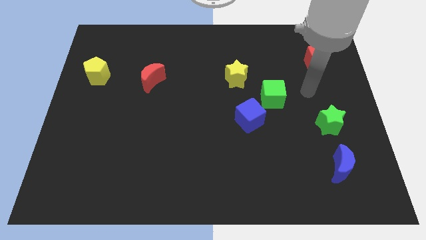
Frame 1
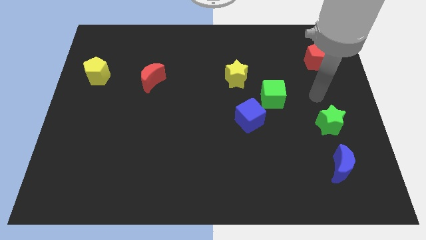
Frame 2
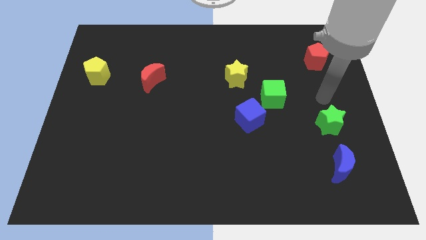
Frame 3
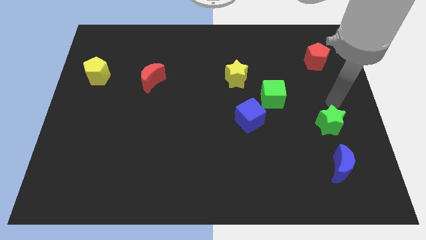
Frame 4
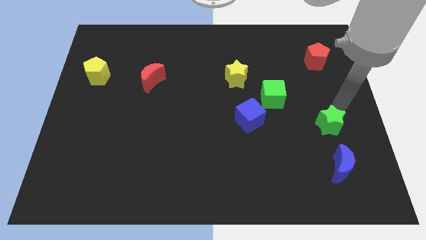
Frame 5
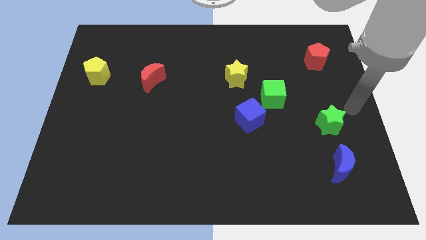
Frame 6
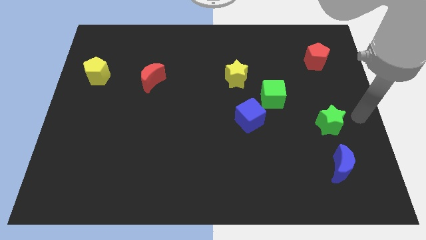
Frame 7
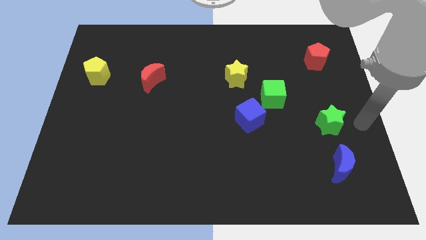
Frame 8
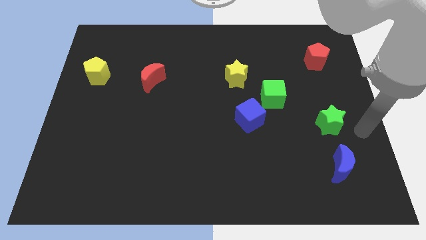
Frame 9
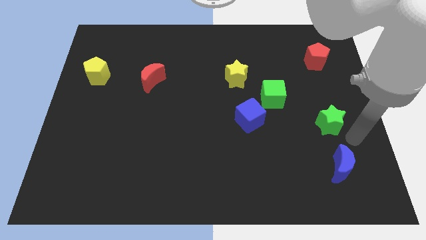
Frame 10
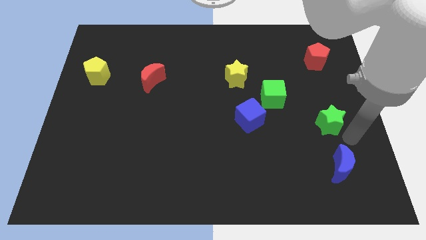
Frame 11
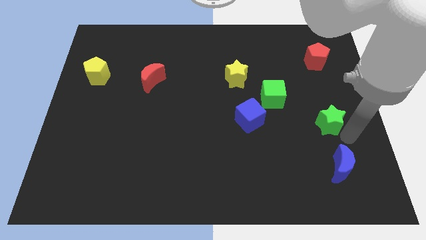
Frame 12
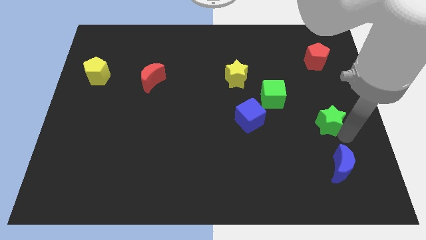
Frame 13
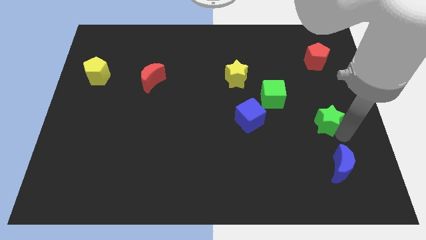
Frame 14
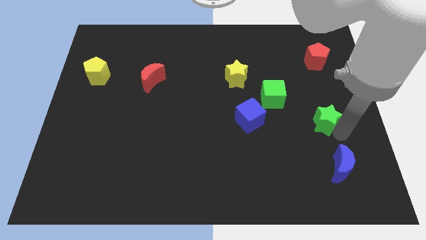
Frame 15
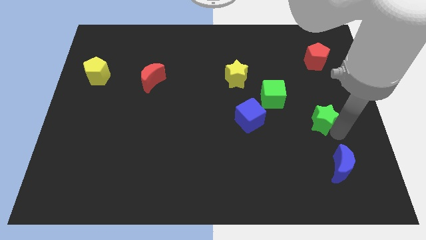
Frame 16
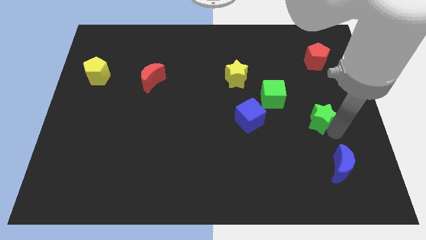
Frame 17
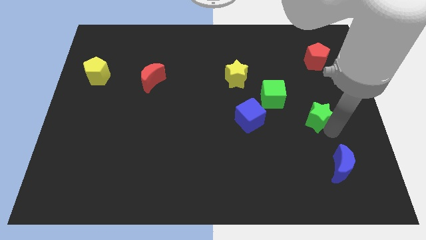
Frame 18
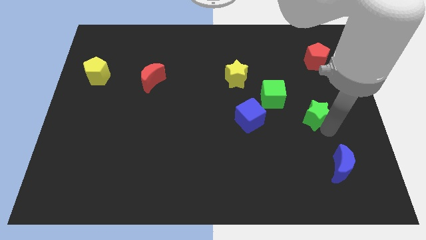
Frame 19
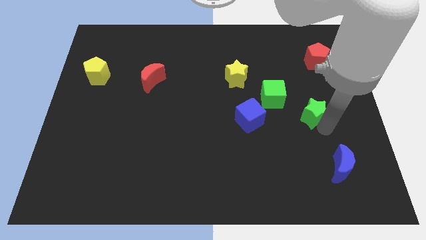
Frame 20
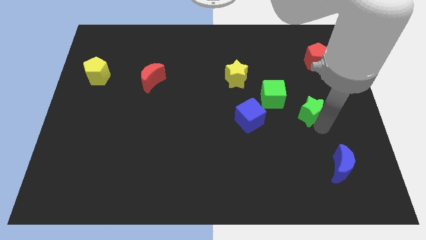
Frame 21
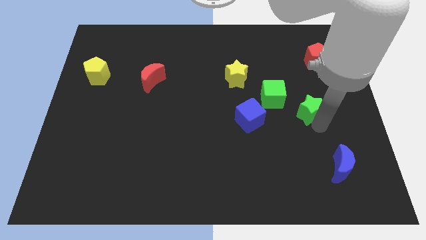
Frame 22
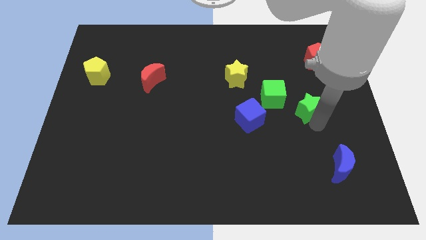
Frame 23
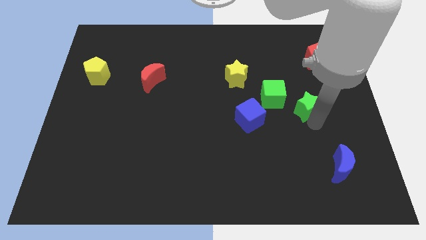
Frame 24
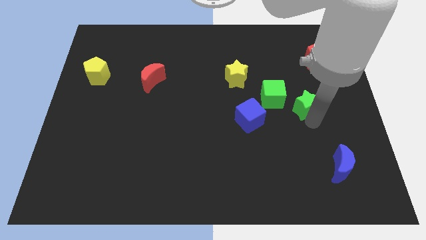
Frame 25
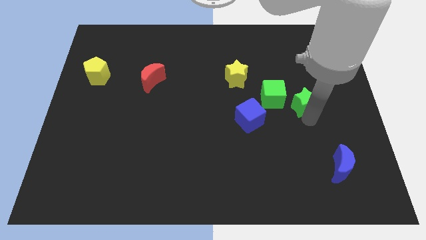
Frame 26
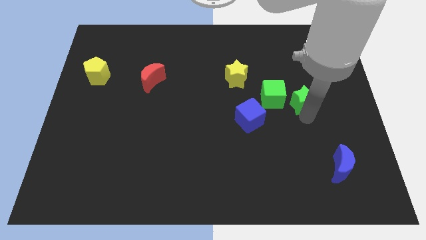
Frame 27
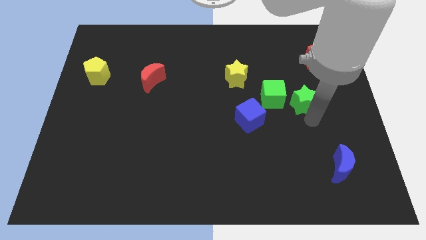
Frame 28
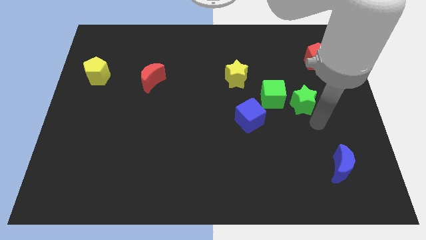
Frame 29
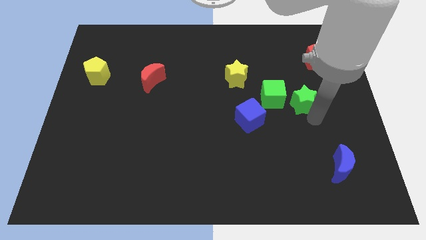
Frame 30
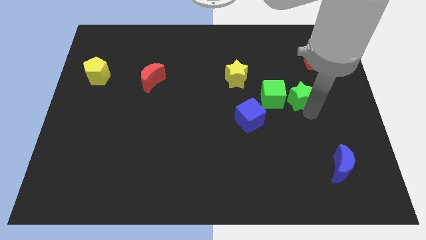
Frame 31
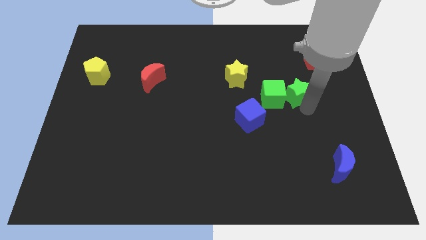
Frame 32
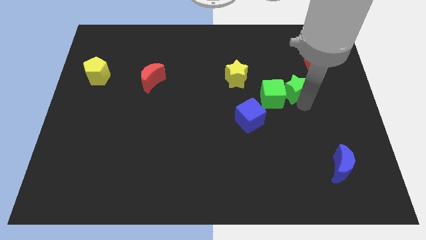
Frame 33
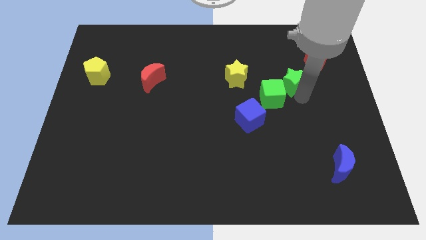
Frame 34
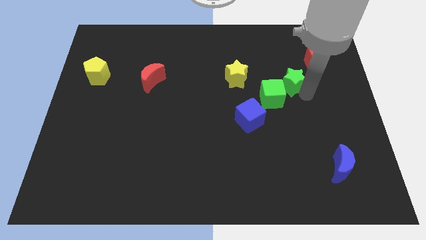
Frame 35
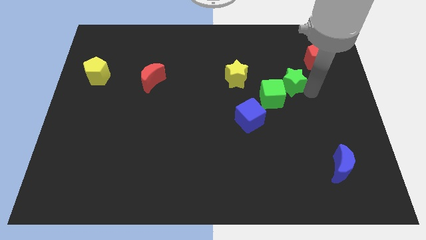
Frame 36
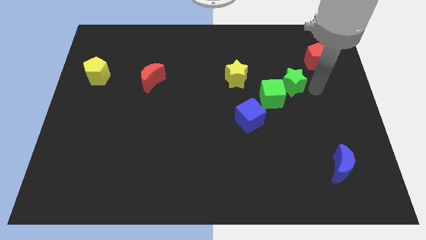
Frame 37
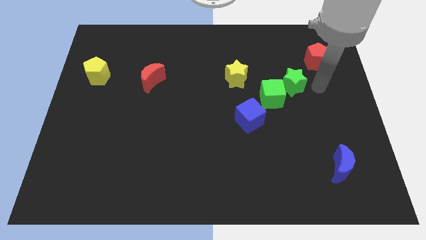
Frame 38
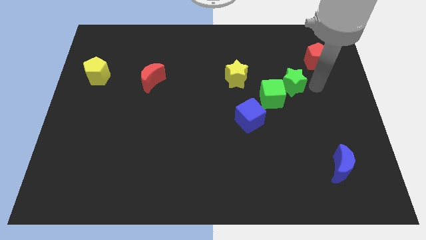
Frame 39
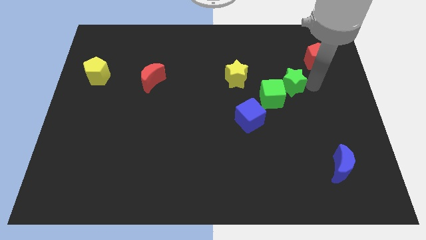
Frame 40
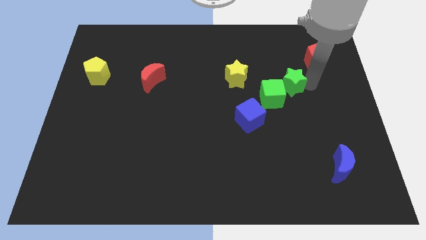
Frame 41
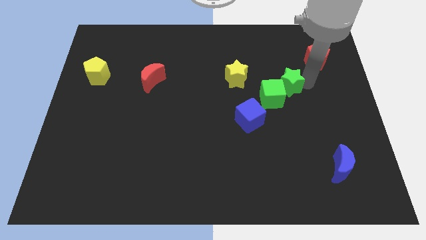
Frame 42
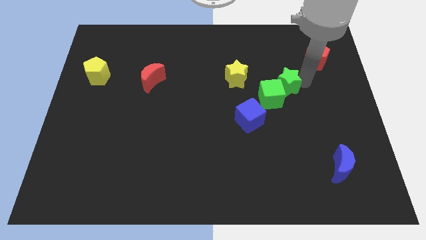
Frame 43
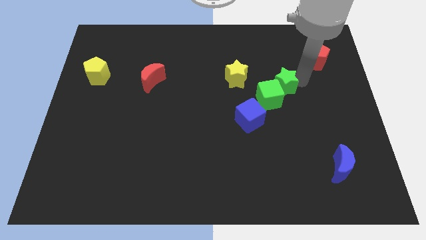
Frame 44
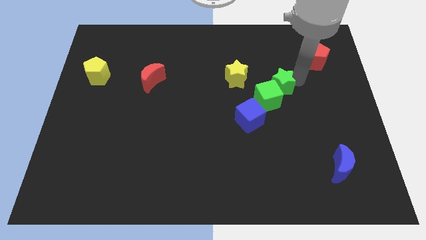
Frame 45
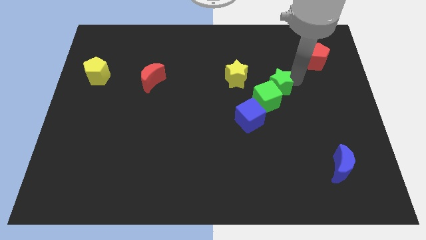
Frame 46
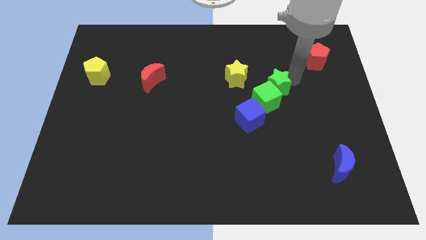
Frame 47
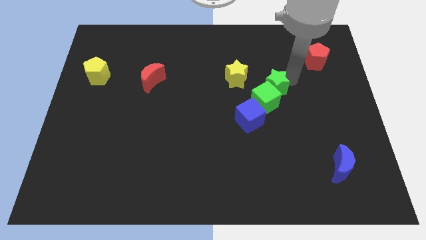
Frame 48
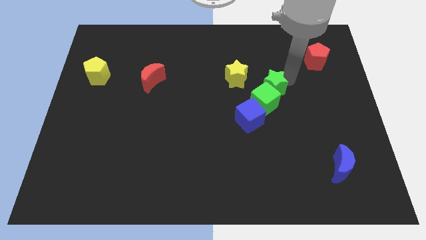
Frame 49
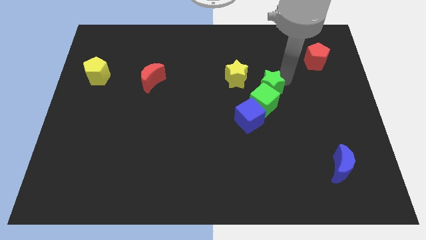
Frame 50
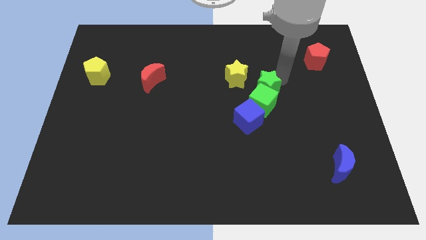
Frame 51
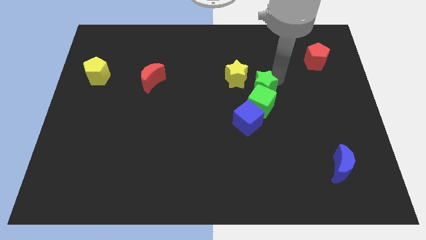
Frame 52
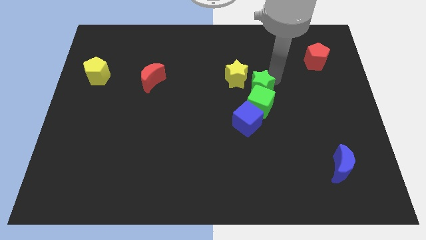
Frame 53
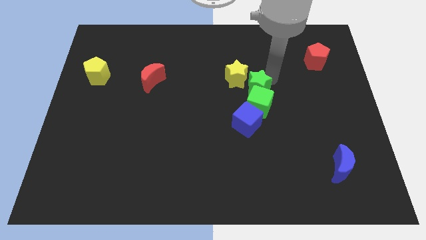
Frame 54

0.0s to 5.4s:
move the green star towards the yellow star

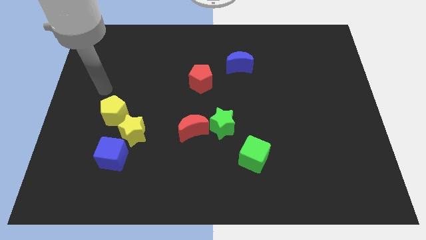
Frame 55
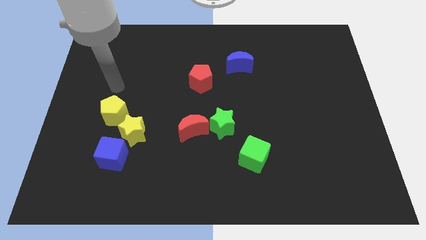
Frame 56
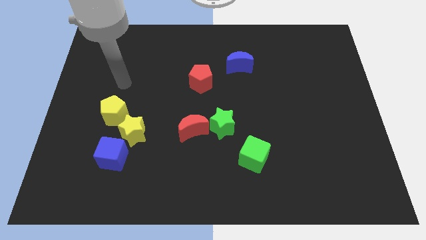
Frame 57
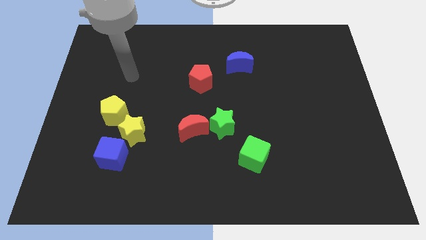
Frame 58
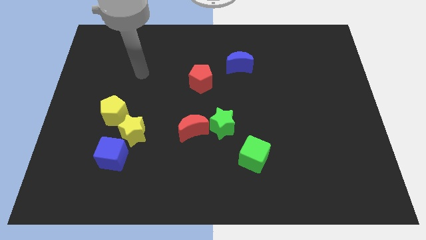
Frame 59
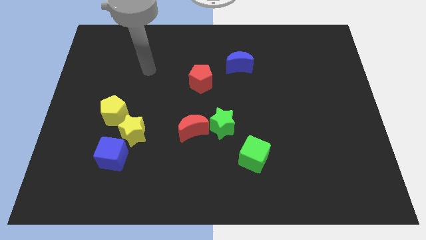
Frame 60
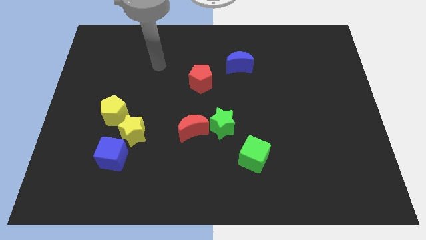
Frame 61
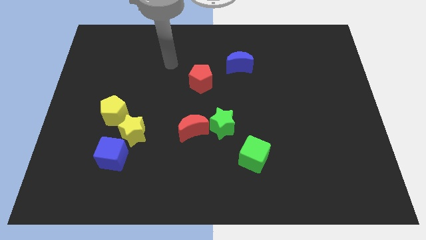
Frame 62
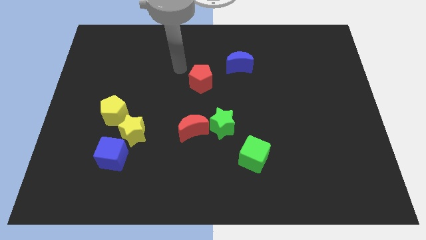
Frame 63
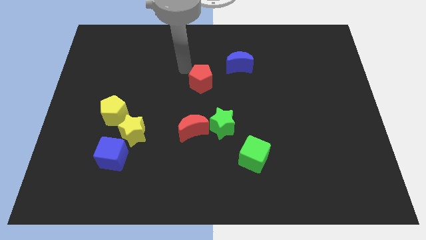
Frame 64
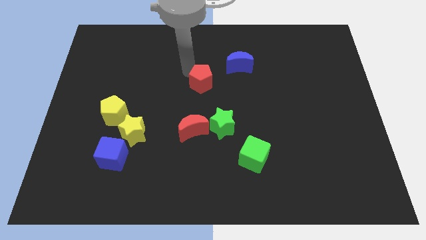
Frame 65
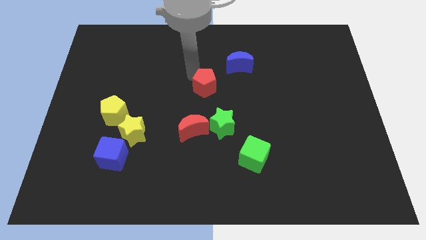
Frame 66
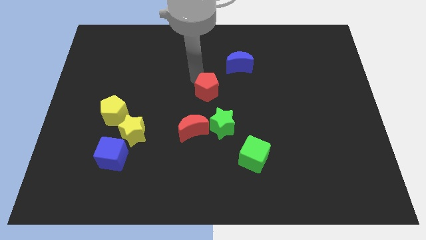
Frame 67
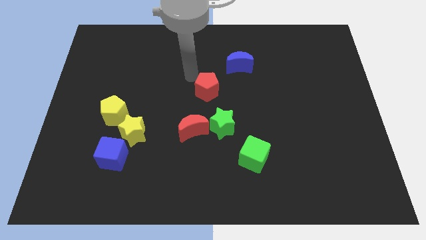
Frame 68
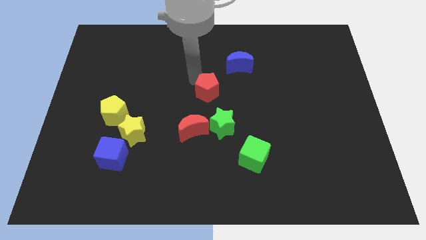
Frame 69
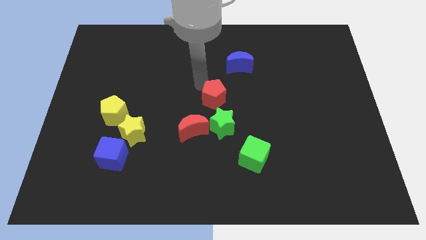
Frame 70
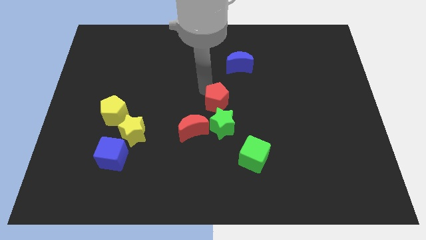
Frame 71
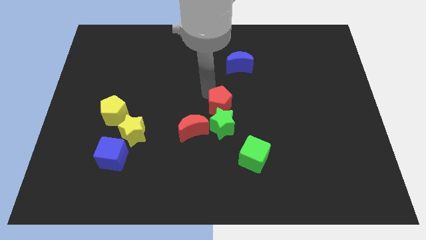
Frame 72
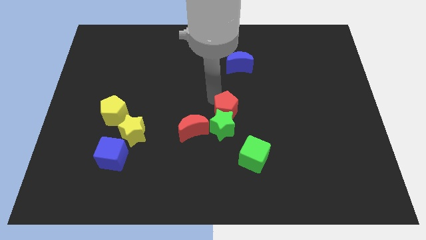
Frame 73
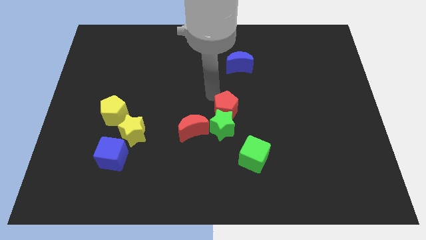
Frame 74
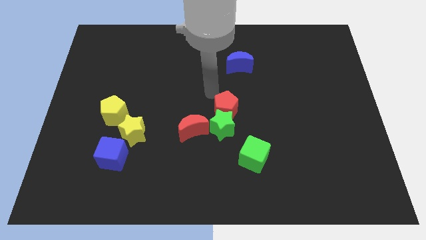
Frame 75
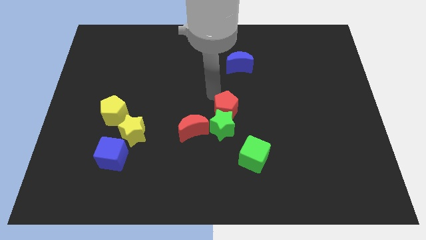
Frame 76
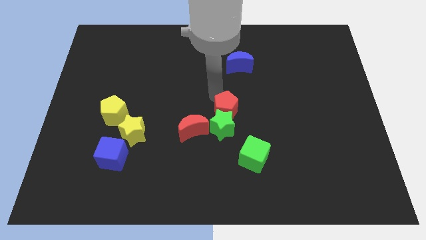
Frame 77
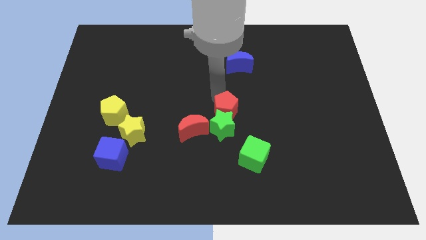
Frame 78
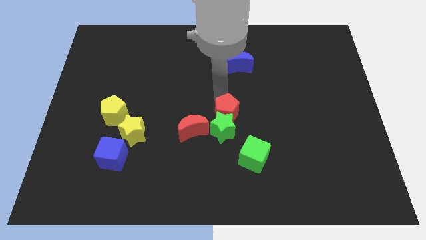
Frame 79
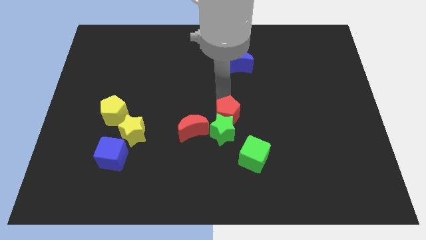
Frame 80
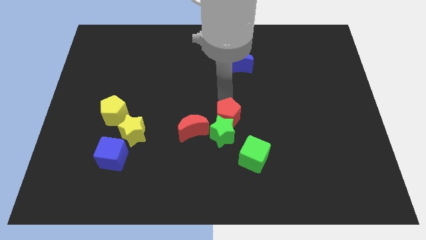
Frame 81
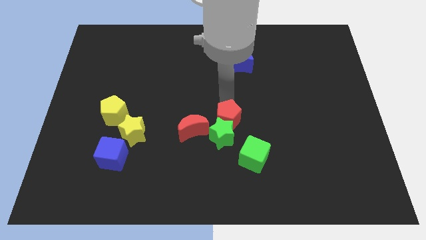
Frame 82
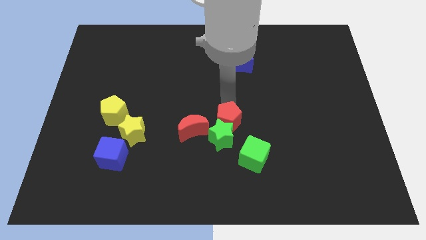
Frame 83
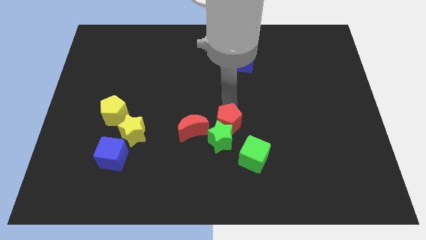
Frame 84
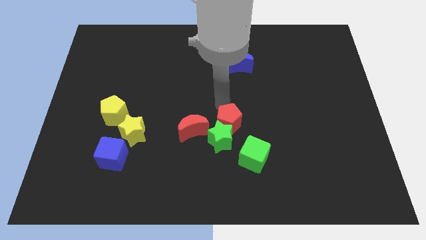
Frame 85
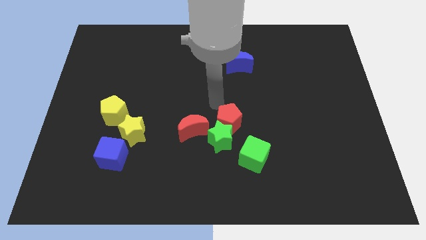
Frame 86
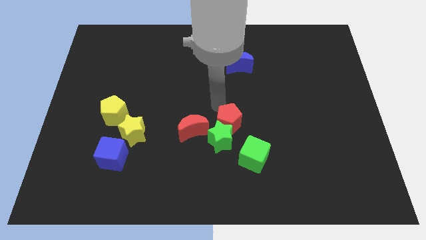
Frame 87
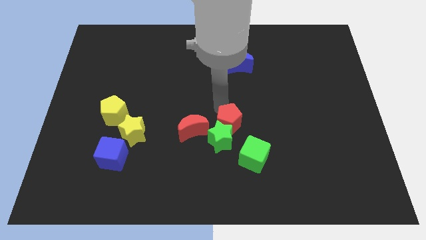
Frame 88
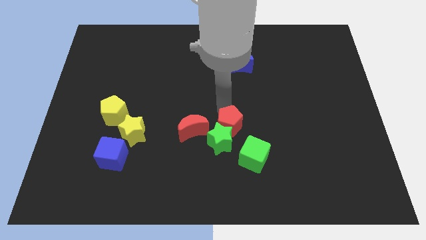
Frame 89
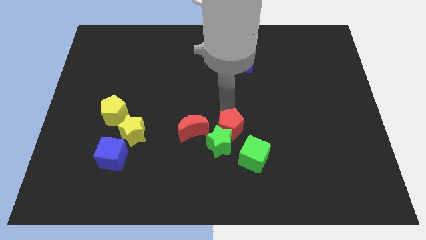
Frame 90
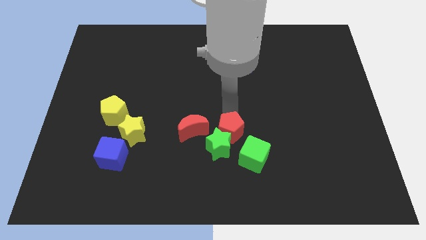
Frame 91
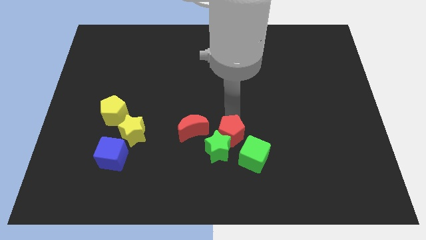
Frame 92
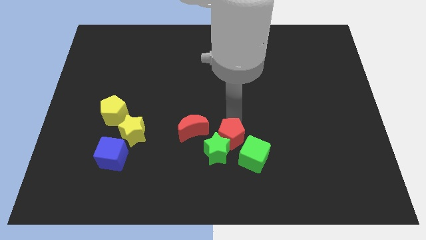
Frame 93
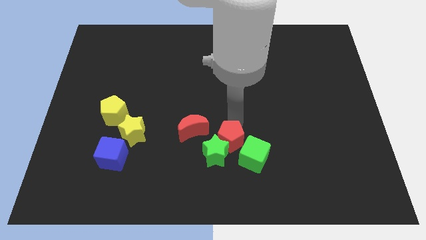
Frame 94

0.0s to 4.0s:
slide the red pentagon close to the green cube
